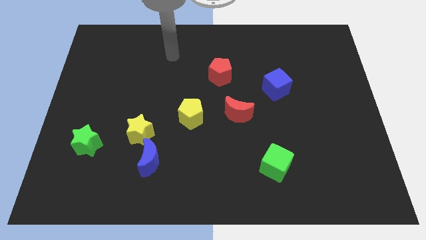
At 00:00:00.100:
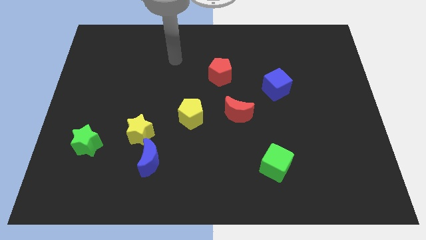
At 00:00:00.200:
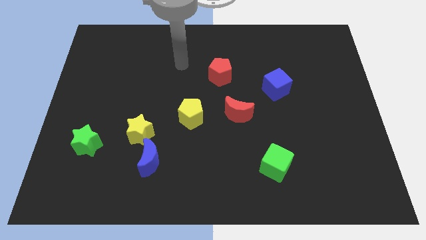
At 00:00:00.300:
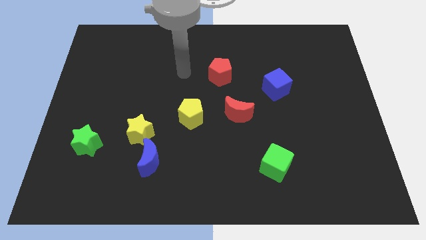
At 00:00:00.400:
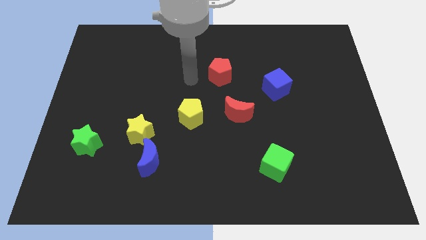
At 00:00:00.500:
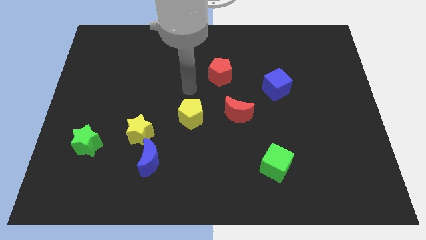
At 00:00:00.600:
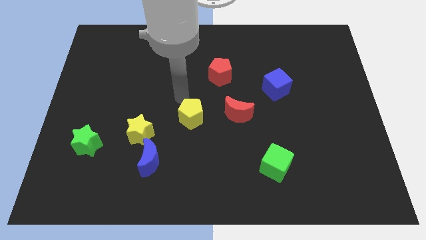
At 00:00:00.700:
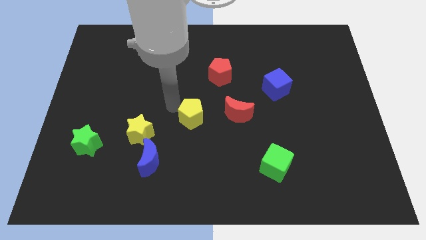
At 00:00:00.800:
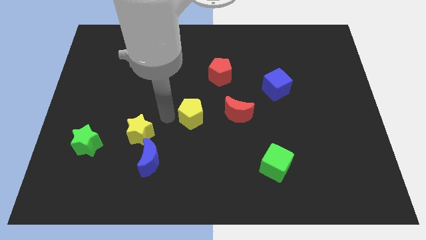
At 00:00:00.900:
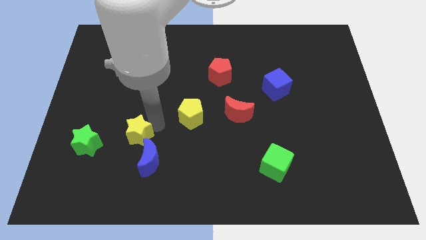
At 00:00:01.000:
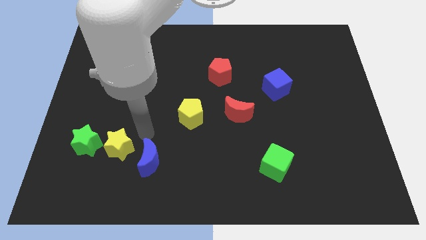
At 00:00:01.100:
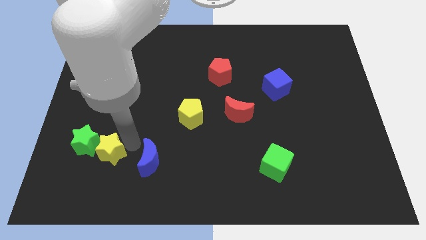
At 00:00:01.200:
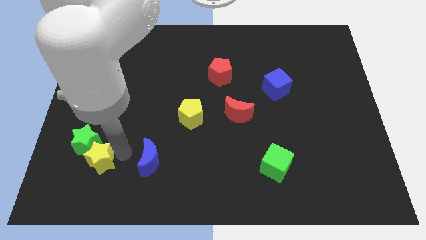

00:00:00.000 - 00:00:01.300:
separate the blue moon from the yellow star

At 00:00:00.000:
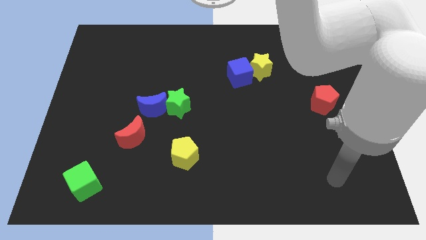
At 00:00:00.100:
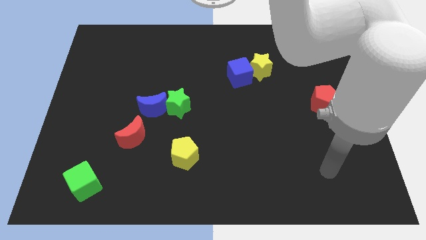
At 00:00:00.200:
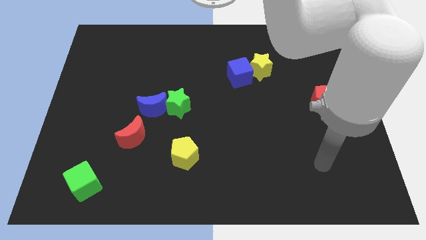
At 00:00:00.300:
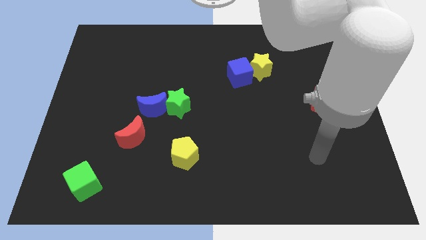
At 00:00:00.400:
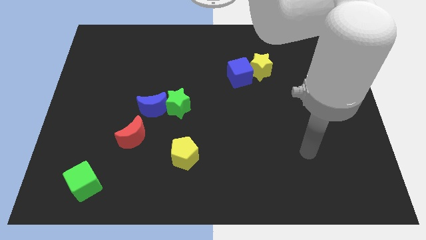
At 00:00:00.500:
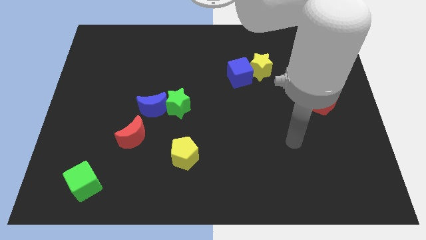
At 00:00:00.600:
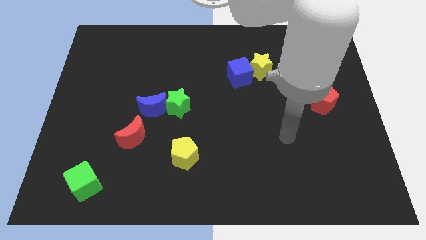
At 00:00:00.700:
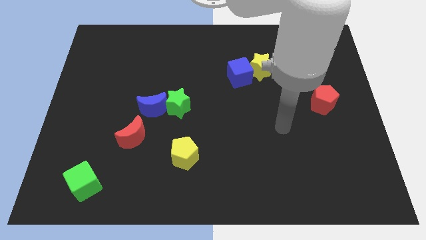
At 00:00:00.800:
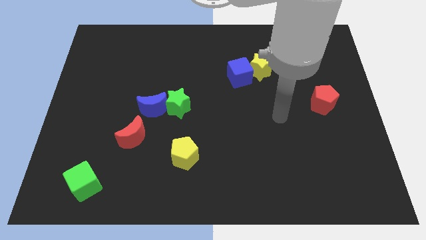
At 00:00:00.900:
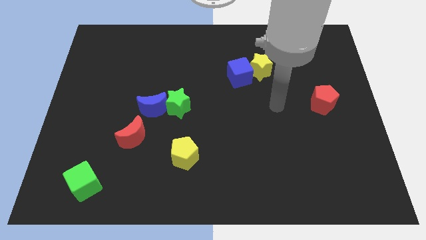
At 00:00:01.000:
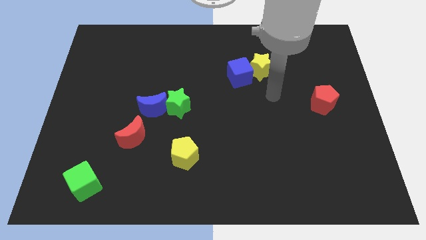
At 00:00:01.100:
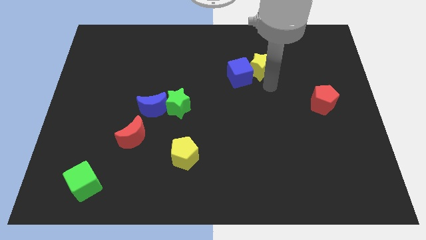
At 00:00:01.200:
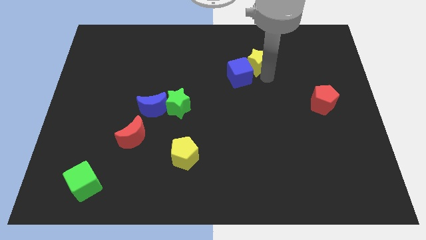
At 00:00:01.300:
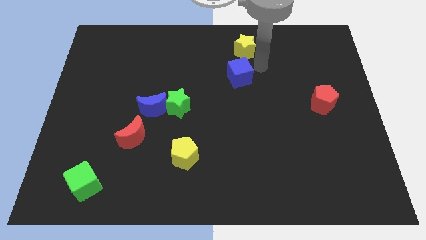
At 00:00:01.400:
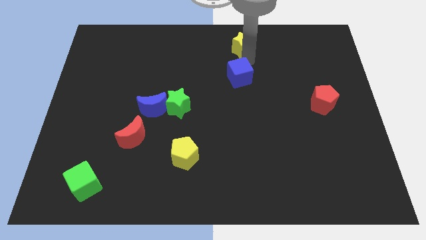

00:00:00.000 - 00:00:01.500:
move the blue cube away from the yellow star

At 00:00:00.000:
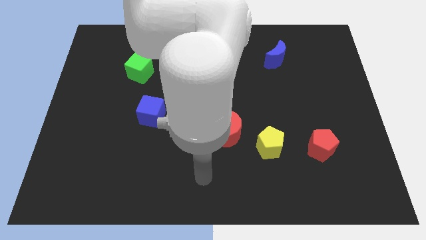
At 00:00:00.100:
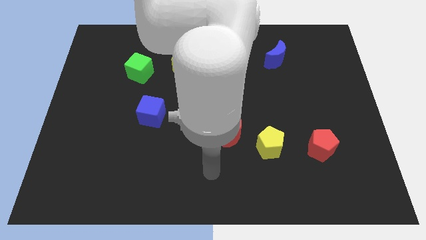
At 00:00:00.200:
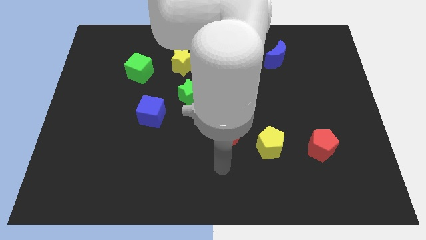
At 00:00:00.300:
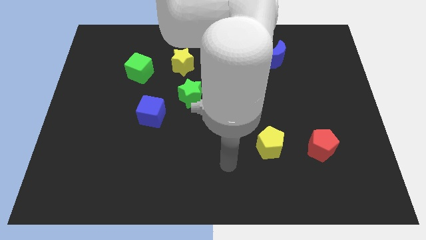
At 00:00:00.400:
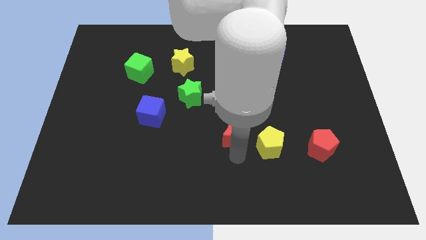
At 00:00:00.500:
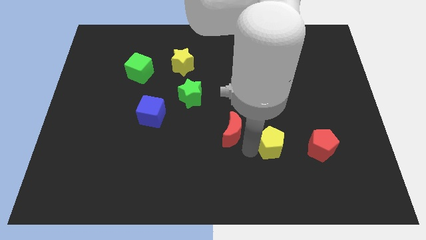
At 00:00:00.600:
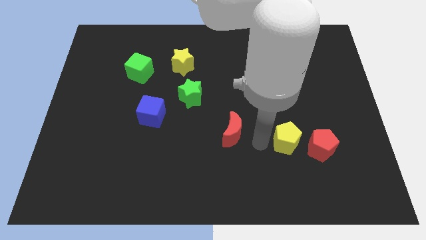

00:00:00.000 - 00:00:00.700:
move the red moon away from the yellow pentagon

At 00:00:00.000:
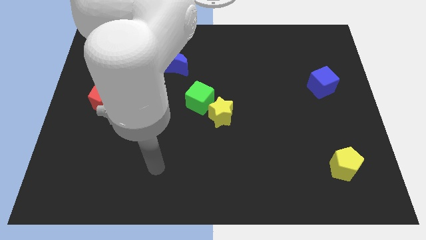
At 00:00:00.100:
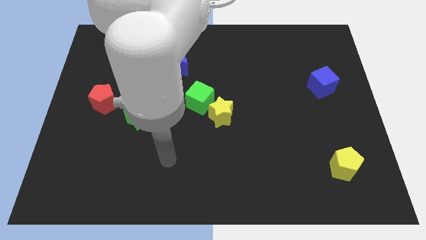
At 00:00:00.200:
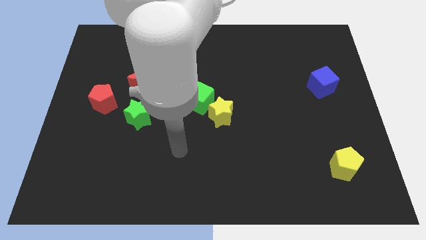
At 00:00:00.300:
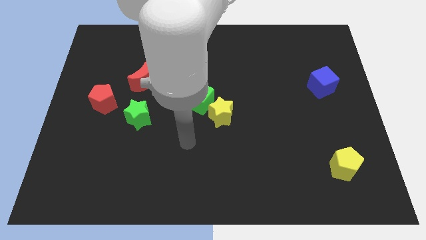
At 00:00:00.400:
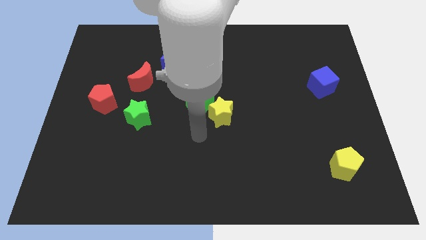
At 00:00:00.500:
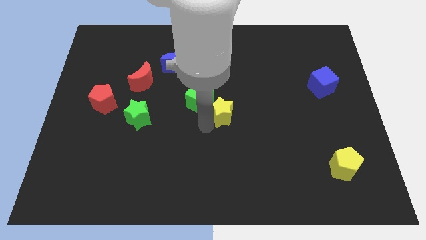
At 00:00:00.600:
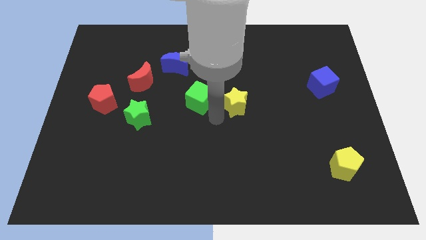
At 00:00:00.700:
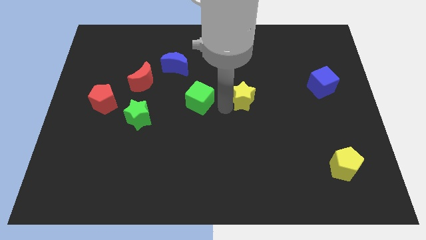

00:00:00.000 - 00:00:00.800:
move the green cube away from the yellow star

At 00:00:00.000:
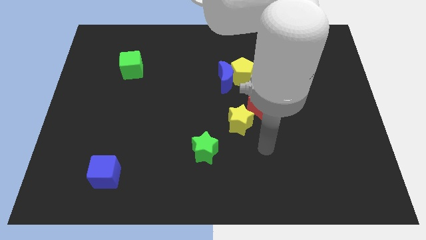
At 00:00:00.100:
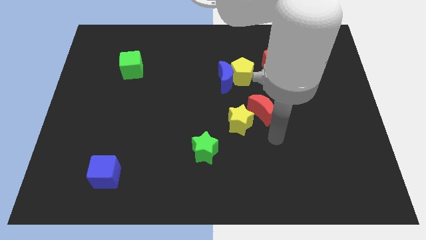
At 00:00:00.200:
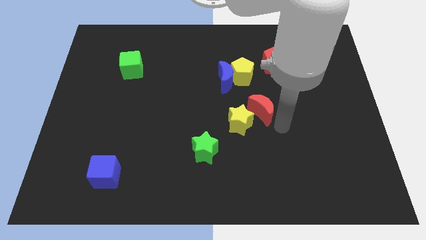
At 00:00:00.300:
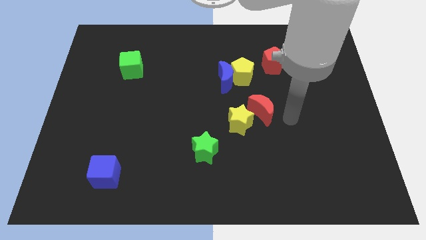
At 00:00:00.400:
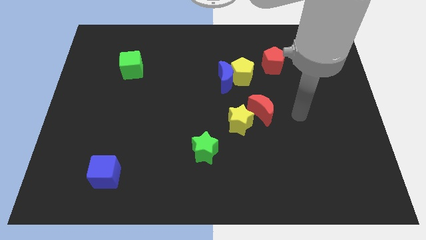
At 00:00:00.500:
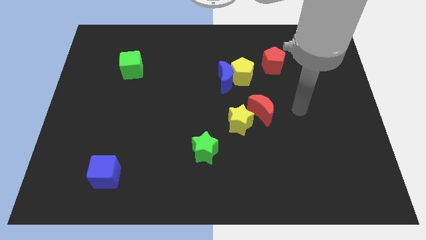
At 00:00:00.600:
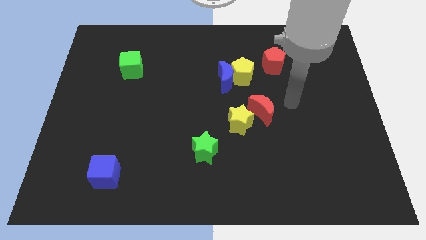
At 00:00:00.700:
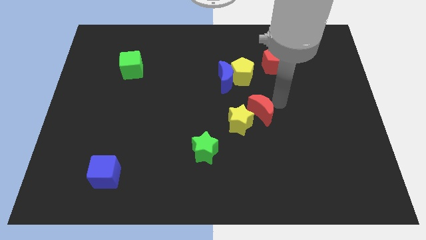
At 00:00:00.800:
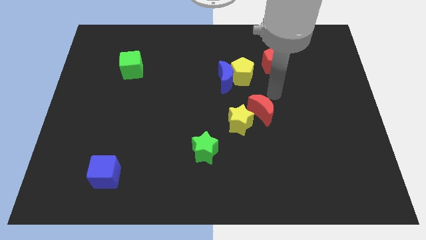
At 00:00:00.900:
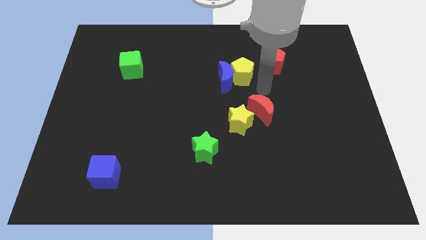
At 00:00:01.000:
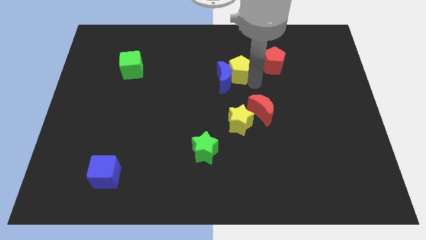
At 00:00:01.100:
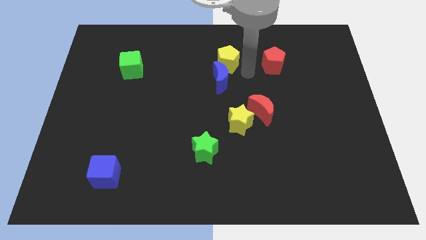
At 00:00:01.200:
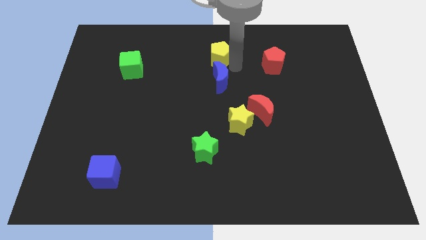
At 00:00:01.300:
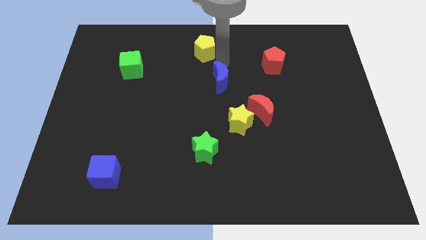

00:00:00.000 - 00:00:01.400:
move the blue moon away from the yellow pentagon

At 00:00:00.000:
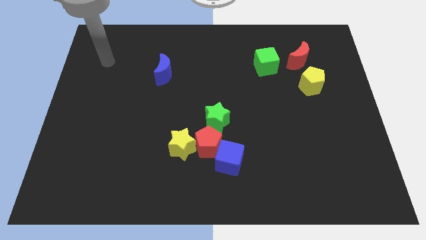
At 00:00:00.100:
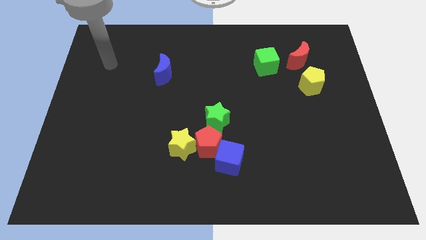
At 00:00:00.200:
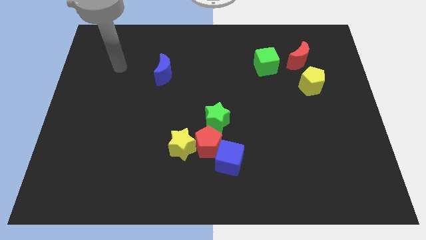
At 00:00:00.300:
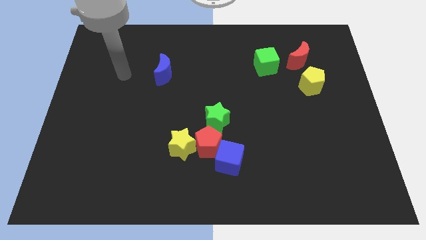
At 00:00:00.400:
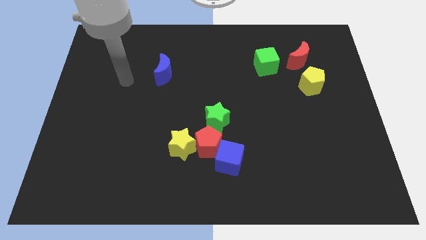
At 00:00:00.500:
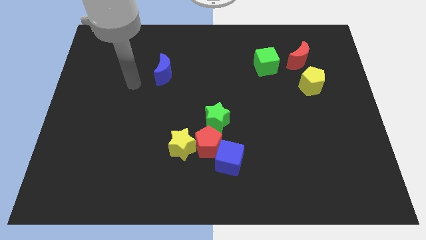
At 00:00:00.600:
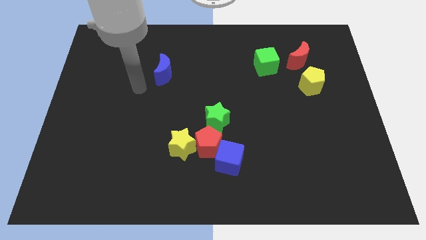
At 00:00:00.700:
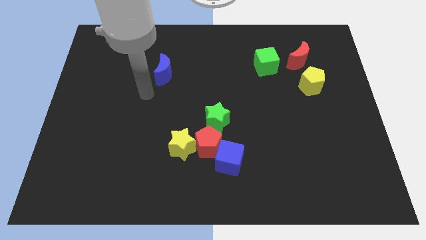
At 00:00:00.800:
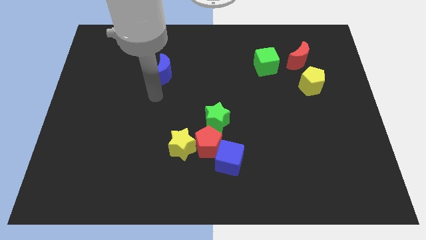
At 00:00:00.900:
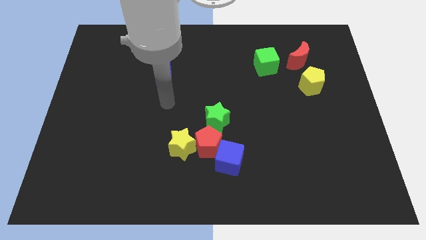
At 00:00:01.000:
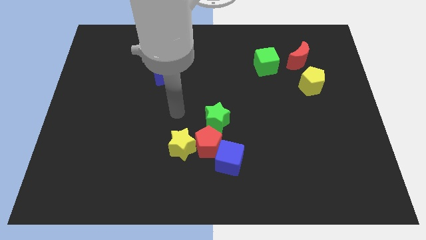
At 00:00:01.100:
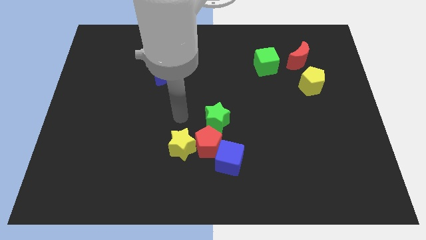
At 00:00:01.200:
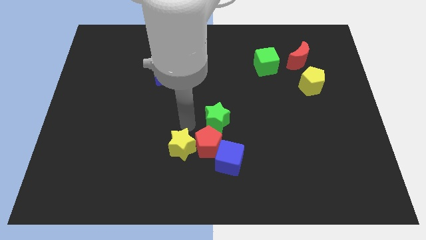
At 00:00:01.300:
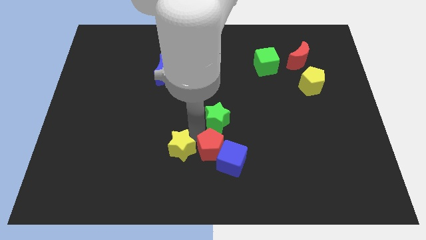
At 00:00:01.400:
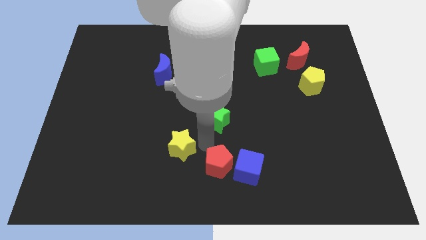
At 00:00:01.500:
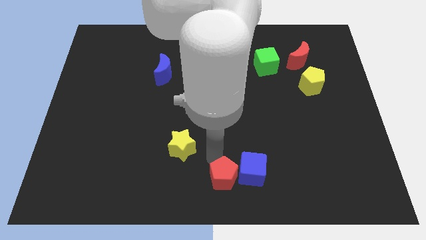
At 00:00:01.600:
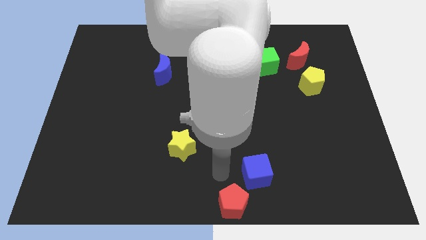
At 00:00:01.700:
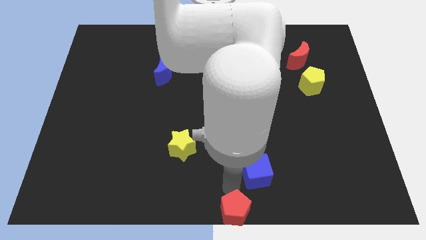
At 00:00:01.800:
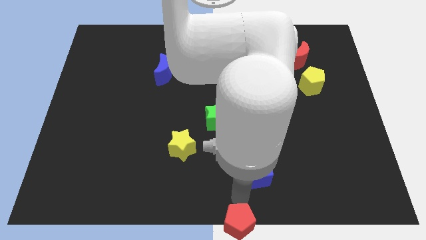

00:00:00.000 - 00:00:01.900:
separate the blue cube from the red pentagon

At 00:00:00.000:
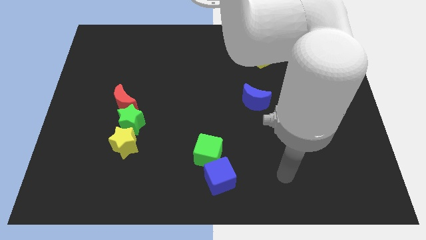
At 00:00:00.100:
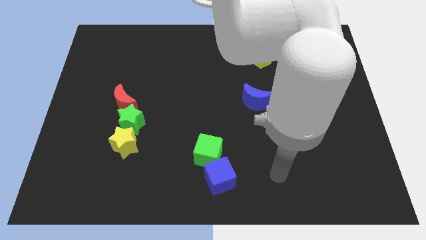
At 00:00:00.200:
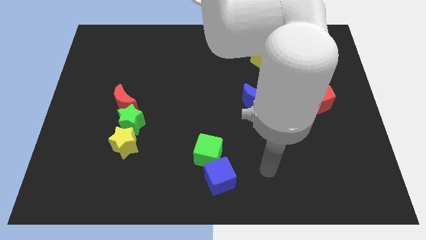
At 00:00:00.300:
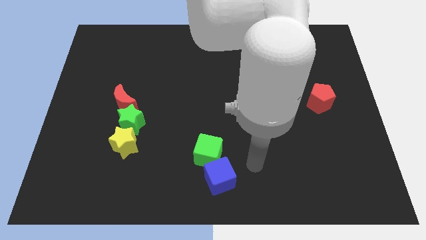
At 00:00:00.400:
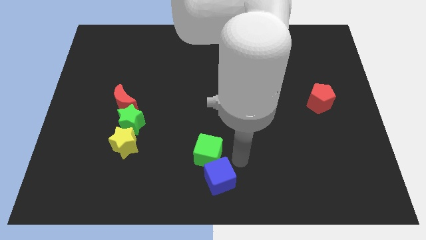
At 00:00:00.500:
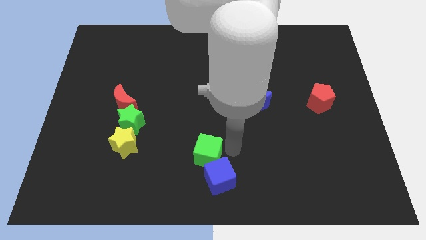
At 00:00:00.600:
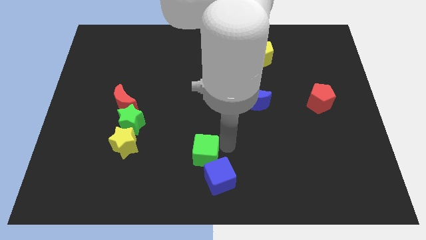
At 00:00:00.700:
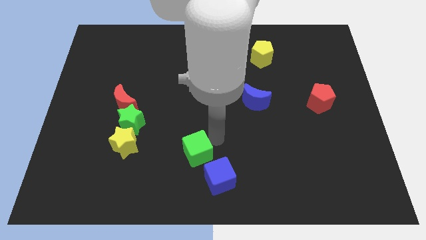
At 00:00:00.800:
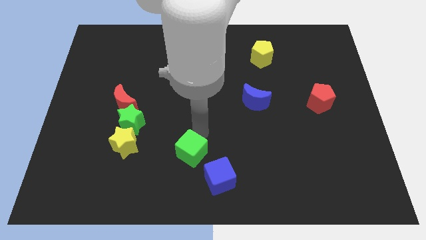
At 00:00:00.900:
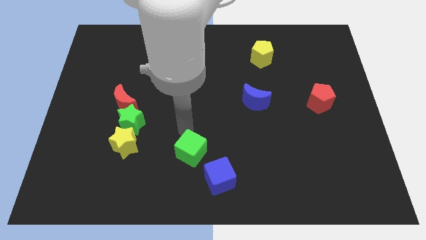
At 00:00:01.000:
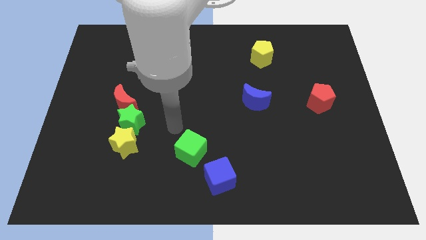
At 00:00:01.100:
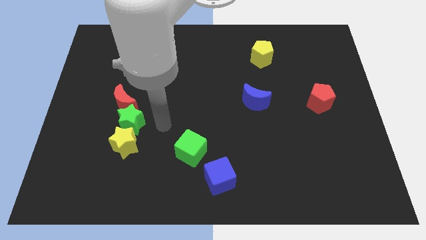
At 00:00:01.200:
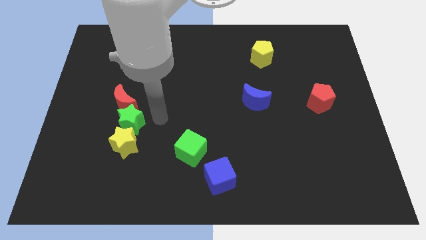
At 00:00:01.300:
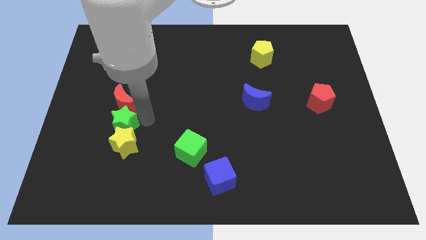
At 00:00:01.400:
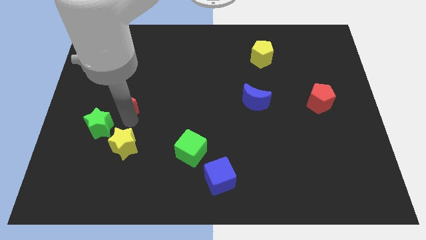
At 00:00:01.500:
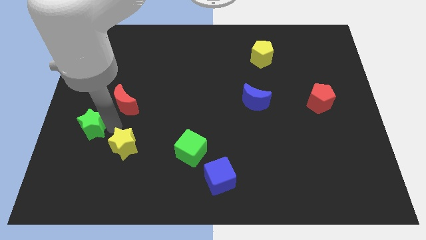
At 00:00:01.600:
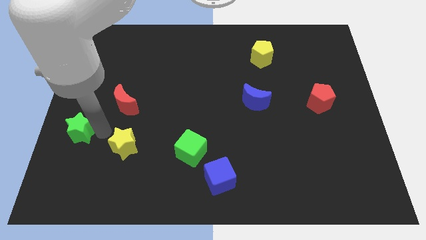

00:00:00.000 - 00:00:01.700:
move the yellow star away from the green star
